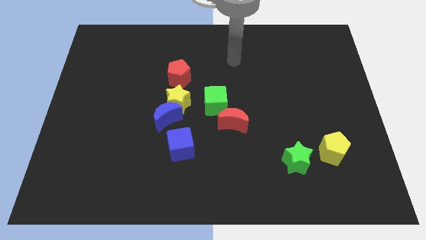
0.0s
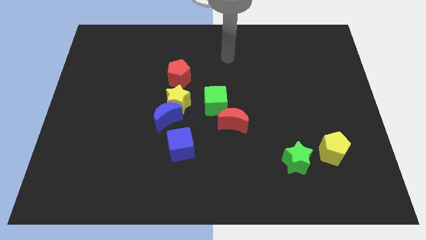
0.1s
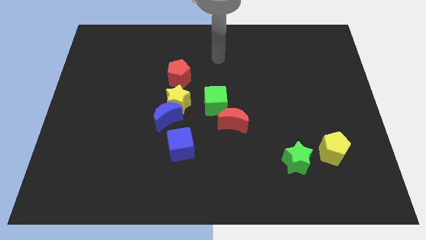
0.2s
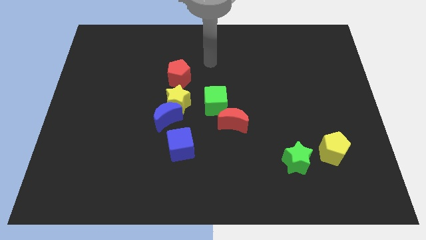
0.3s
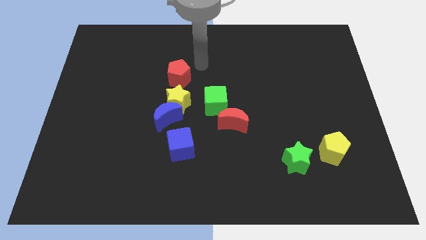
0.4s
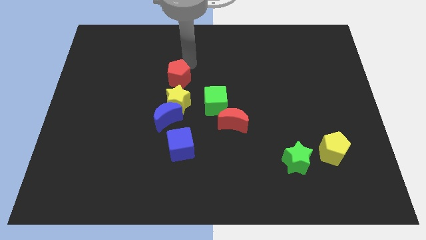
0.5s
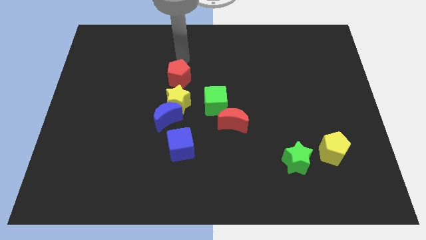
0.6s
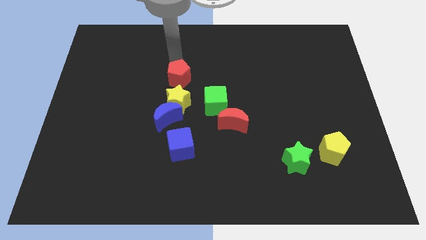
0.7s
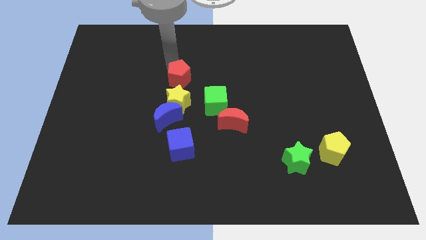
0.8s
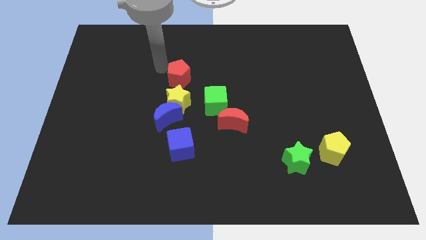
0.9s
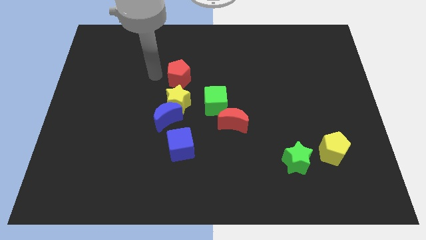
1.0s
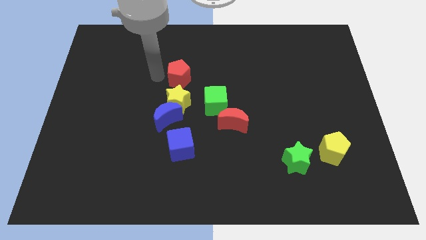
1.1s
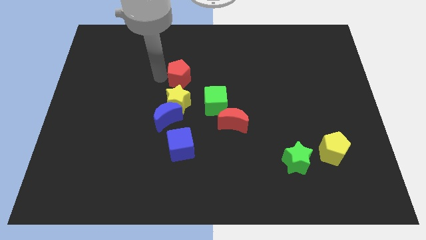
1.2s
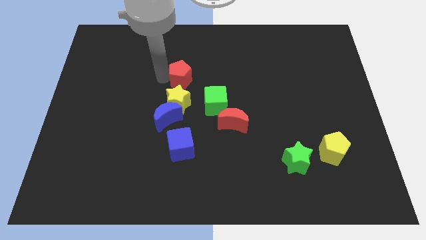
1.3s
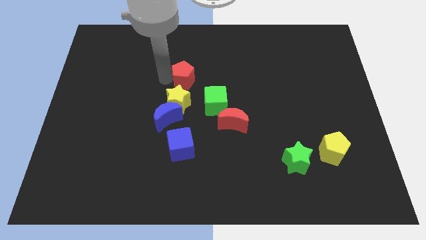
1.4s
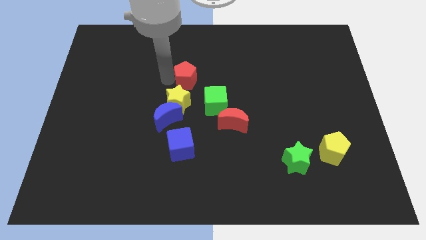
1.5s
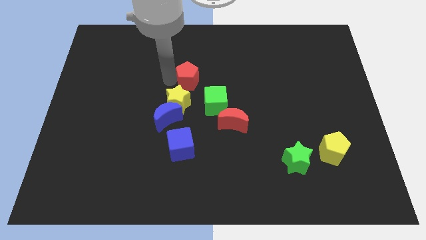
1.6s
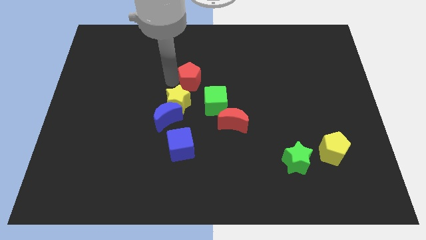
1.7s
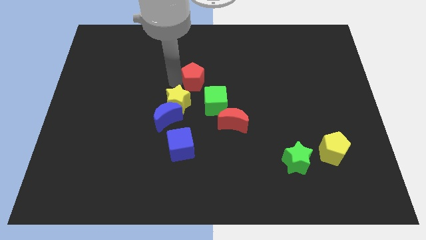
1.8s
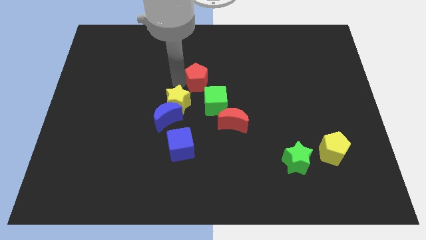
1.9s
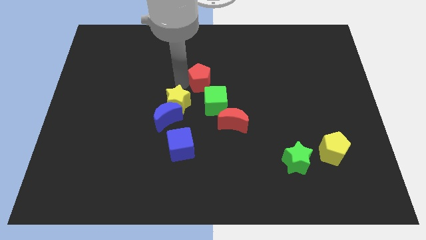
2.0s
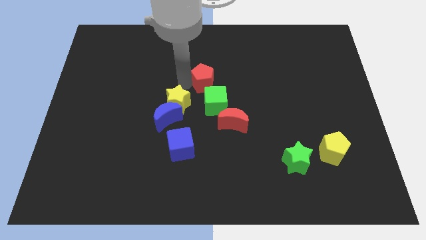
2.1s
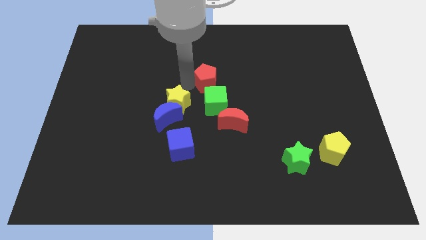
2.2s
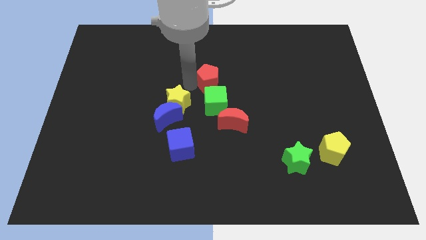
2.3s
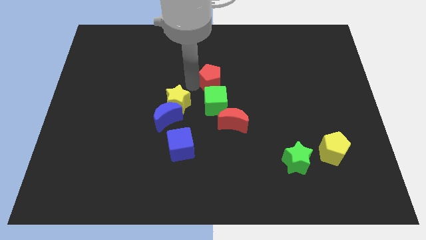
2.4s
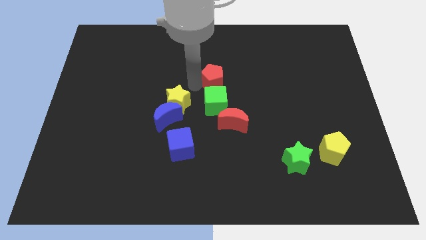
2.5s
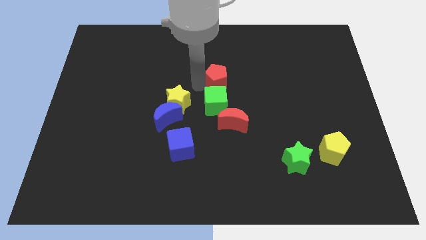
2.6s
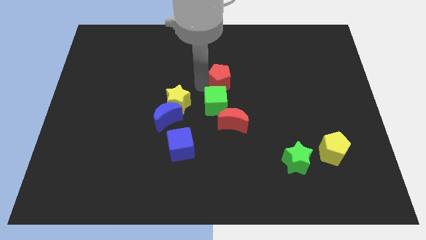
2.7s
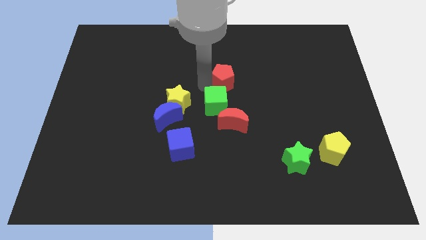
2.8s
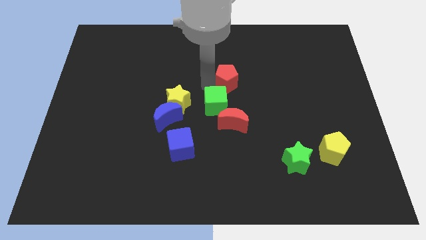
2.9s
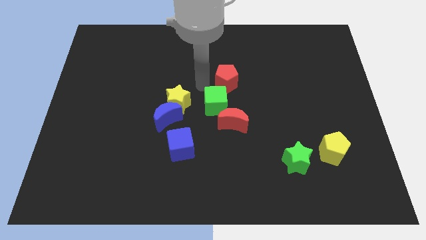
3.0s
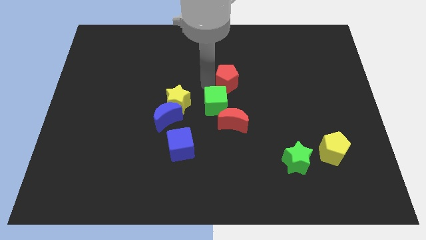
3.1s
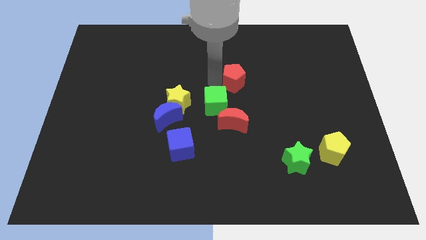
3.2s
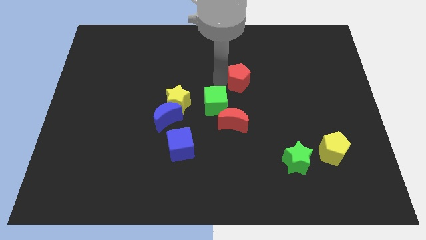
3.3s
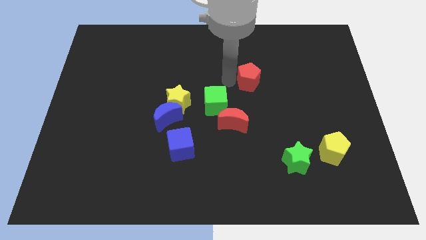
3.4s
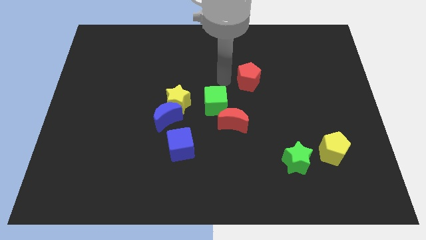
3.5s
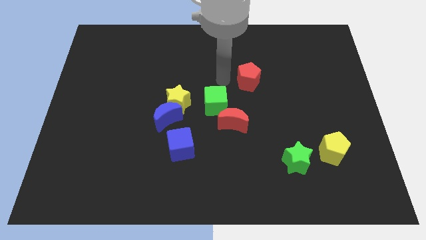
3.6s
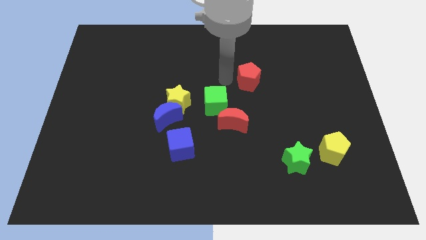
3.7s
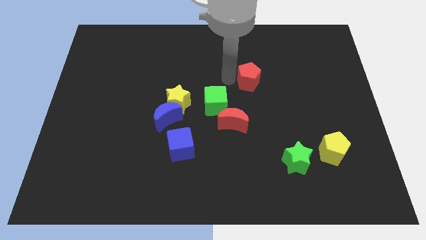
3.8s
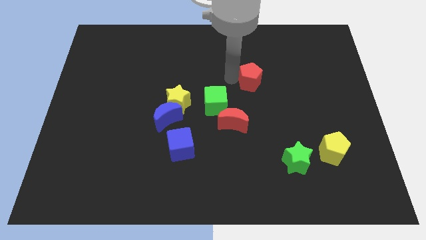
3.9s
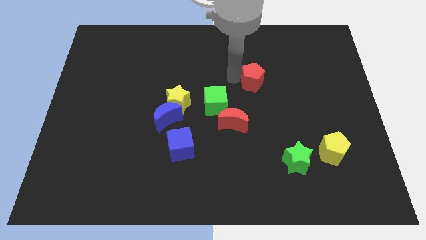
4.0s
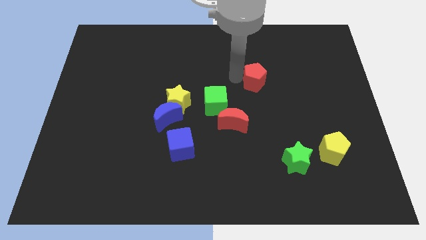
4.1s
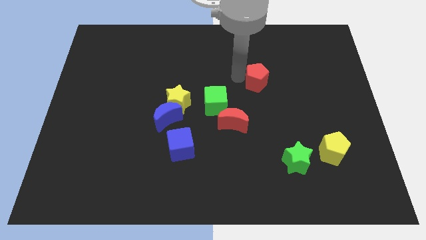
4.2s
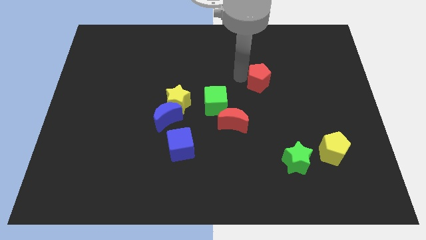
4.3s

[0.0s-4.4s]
move the red pentagon right

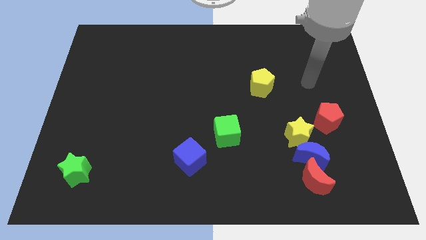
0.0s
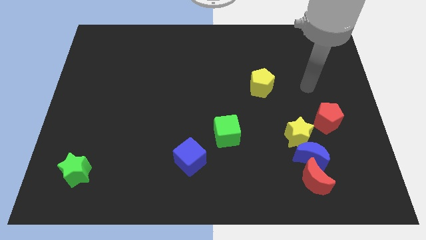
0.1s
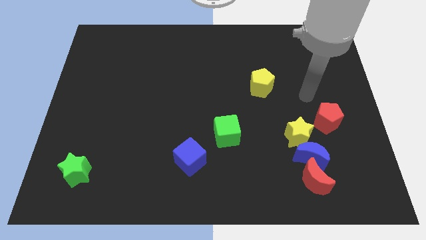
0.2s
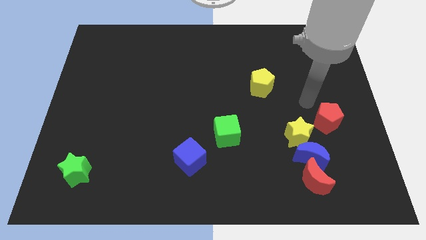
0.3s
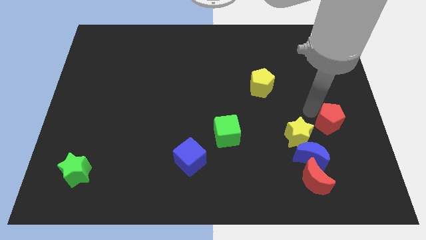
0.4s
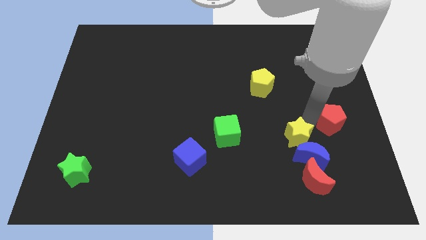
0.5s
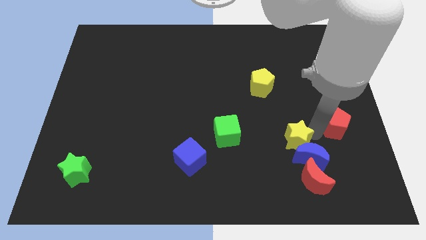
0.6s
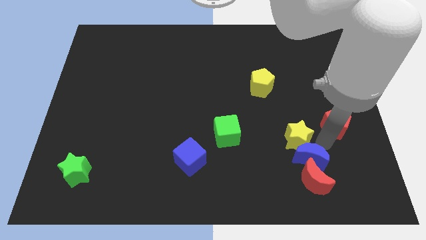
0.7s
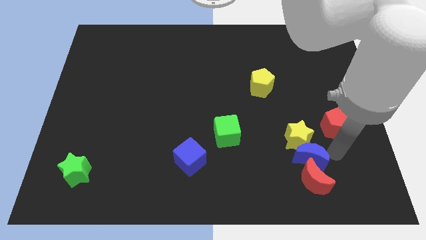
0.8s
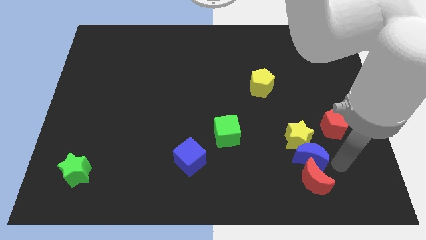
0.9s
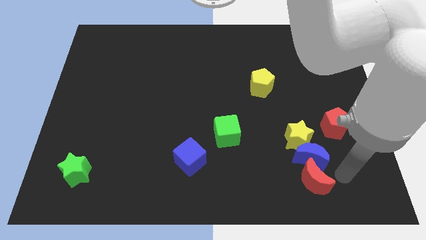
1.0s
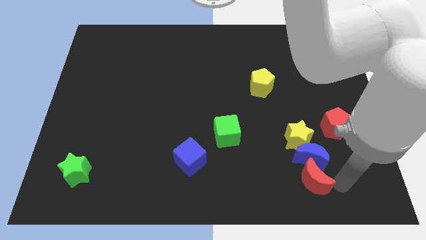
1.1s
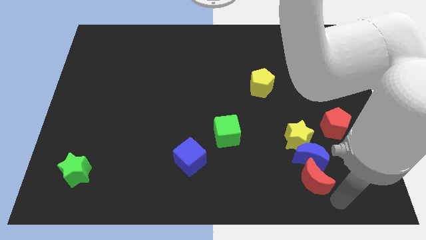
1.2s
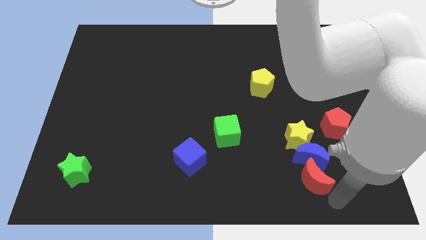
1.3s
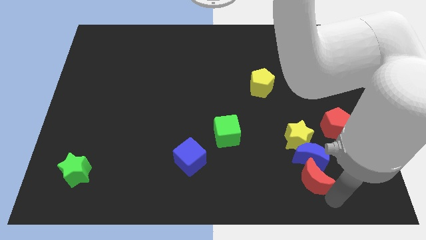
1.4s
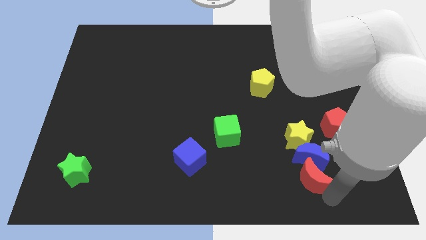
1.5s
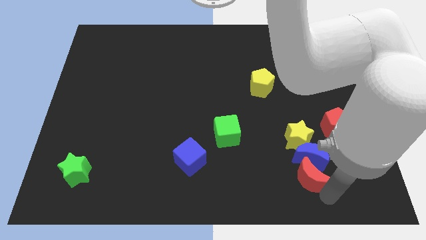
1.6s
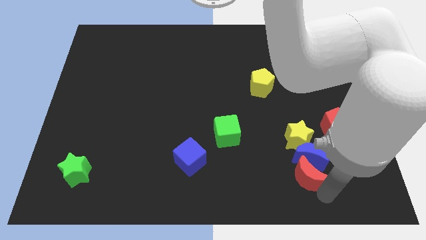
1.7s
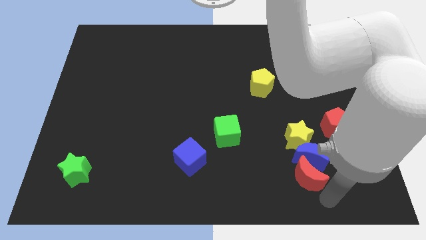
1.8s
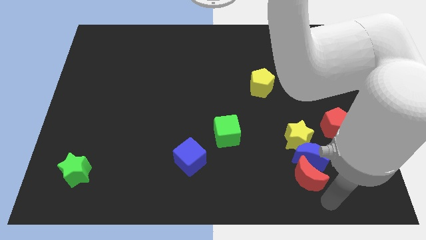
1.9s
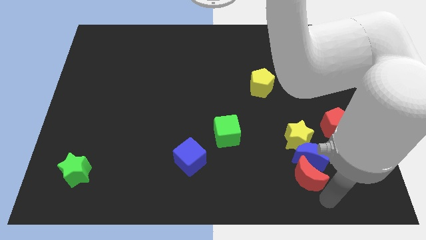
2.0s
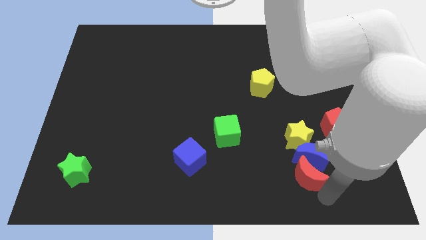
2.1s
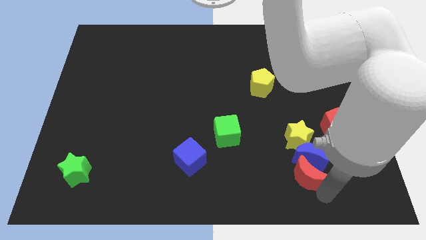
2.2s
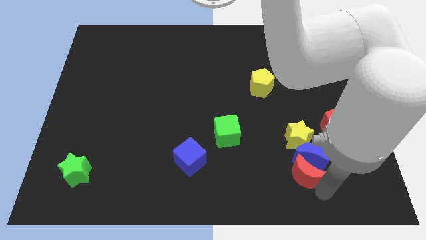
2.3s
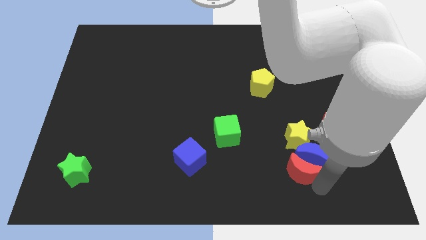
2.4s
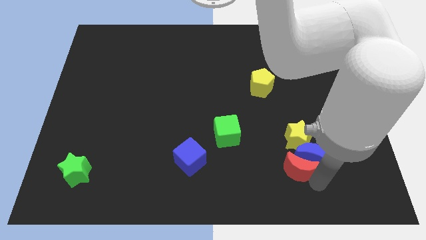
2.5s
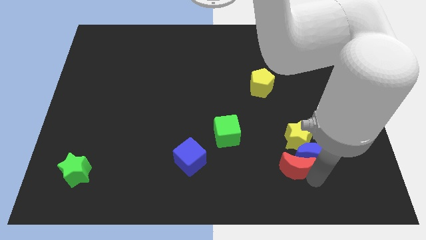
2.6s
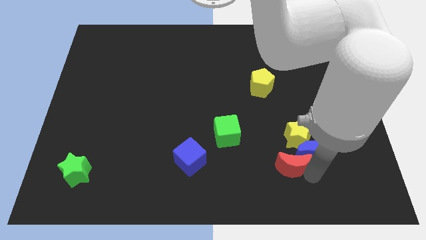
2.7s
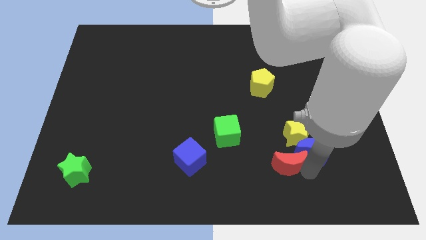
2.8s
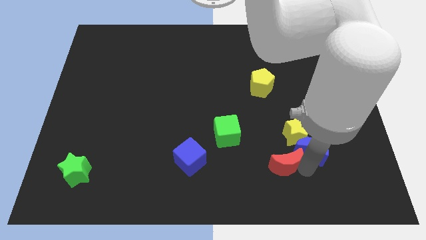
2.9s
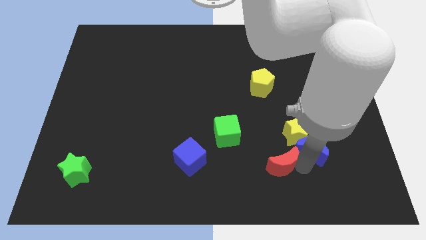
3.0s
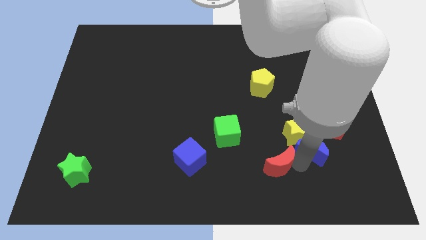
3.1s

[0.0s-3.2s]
push the red moon up and to the left somewhat
